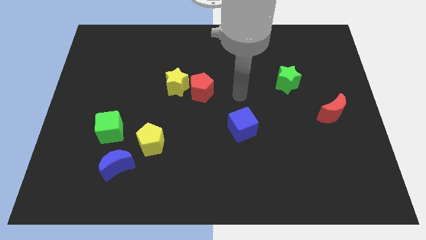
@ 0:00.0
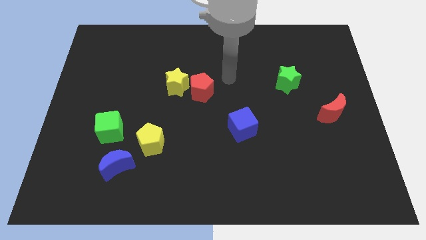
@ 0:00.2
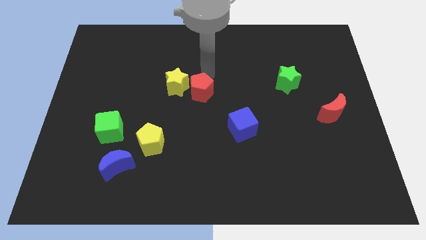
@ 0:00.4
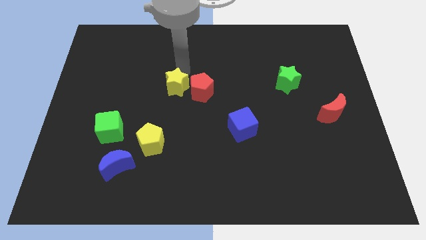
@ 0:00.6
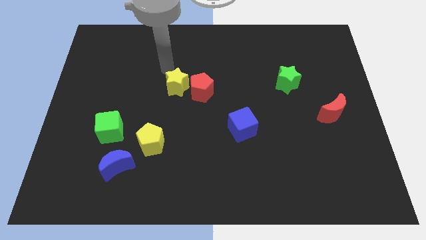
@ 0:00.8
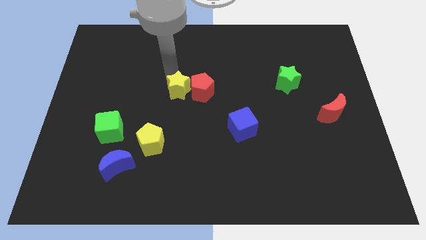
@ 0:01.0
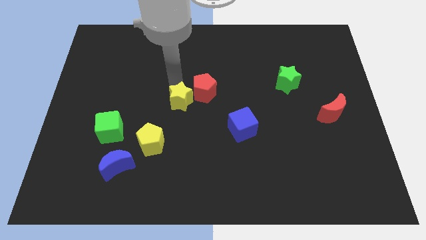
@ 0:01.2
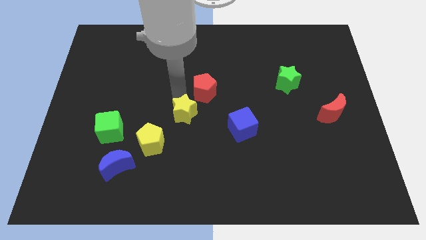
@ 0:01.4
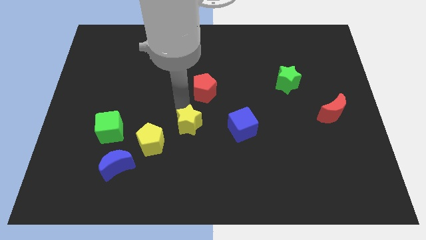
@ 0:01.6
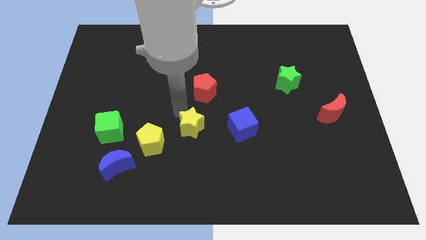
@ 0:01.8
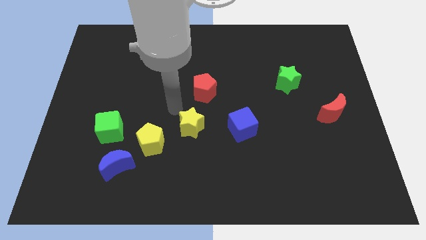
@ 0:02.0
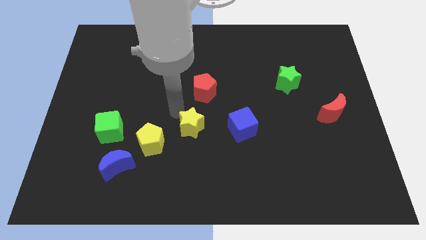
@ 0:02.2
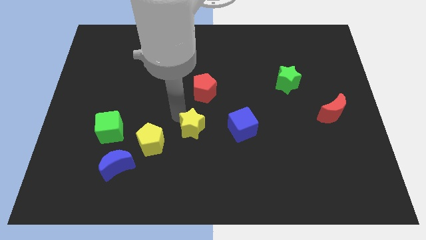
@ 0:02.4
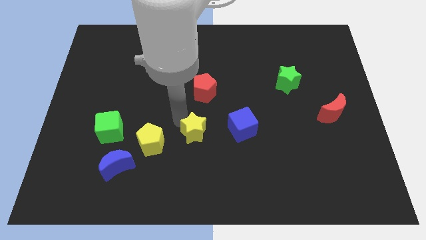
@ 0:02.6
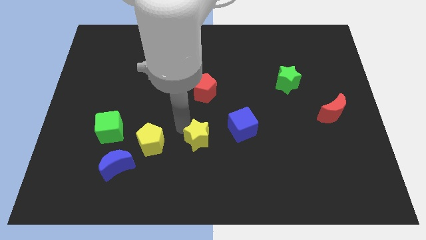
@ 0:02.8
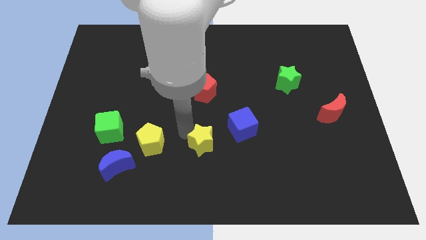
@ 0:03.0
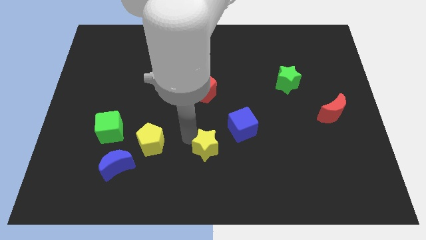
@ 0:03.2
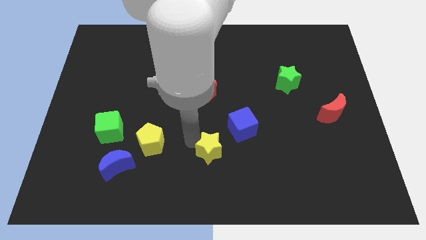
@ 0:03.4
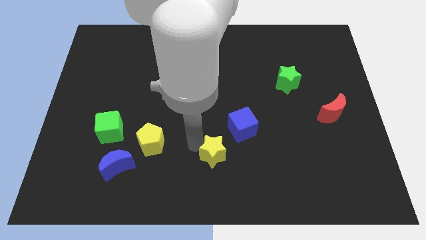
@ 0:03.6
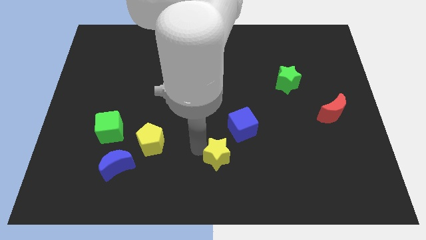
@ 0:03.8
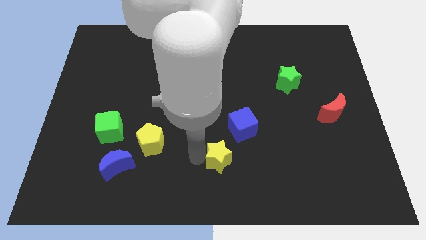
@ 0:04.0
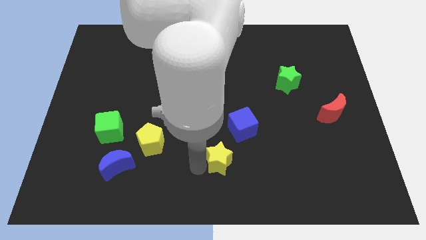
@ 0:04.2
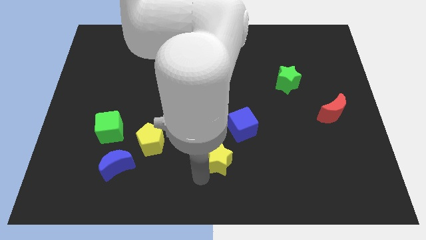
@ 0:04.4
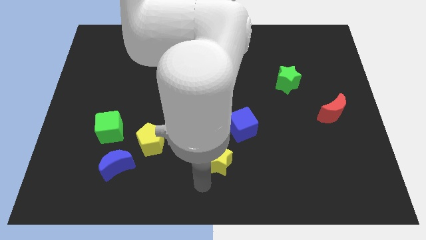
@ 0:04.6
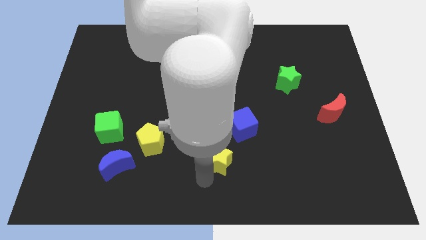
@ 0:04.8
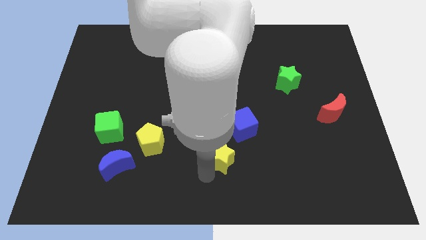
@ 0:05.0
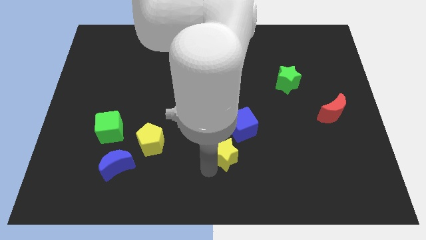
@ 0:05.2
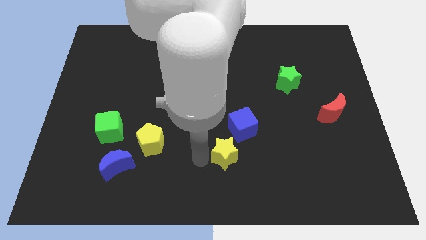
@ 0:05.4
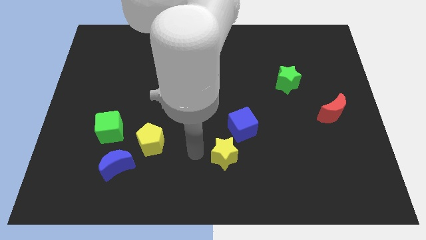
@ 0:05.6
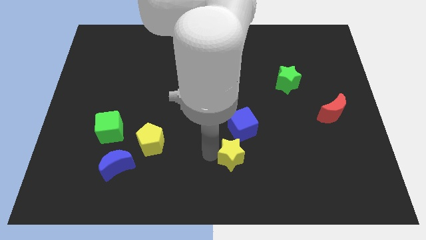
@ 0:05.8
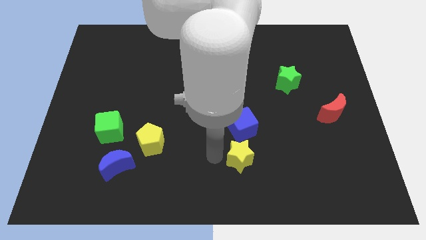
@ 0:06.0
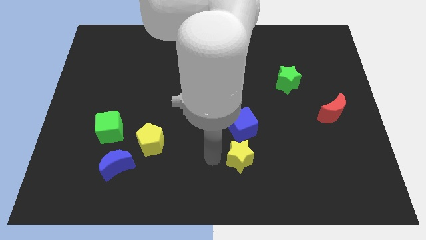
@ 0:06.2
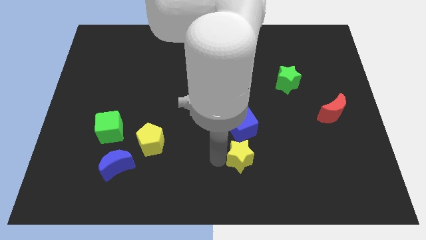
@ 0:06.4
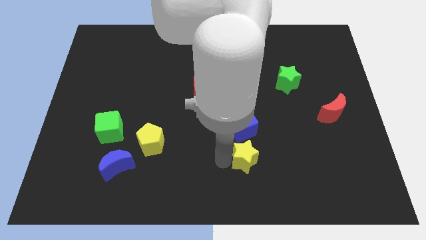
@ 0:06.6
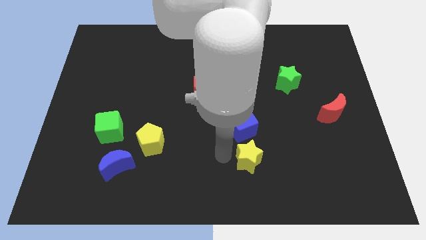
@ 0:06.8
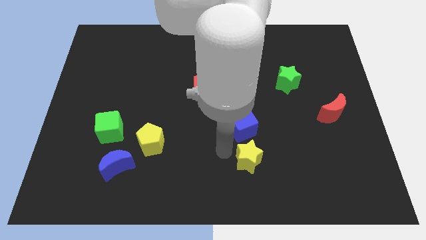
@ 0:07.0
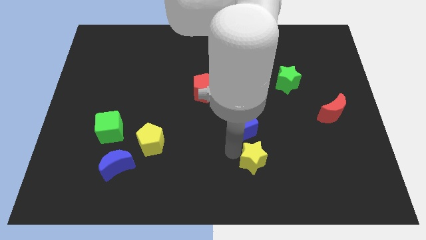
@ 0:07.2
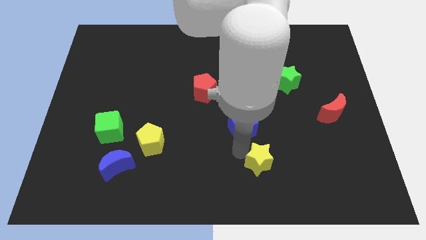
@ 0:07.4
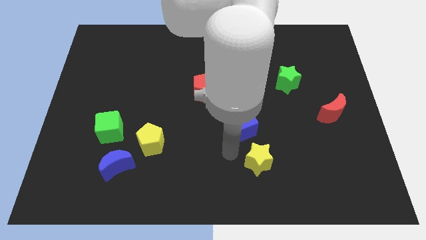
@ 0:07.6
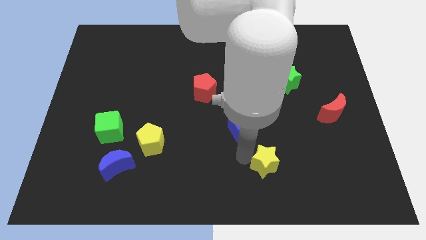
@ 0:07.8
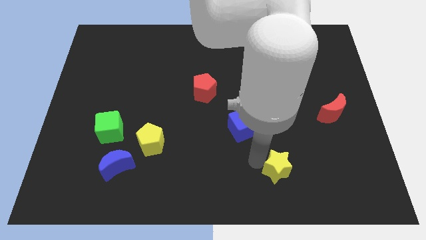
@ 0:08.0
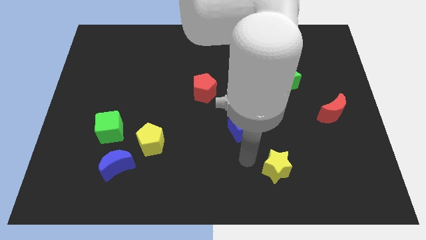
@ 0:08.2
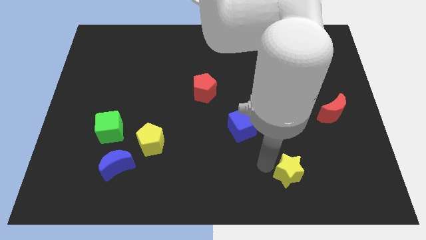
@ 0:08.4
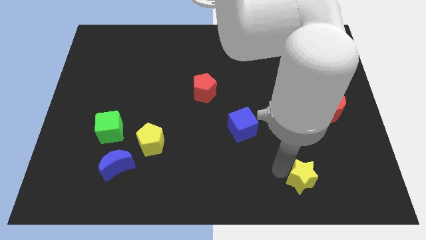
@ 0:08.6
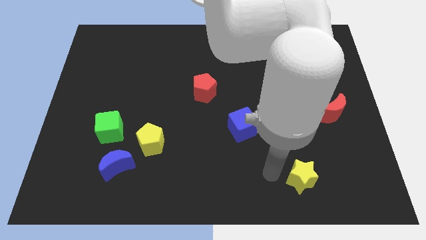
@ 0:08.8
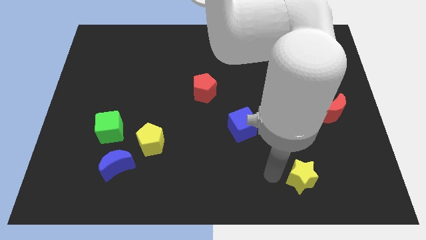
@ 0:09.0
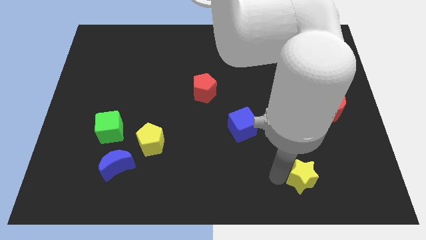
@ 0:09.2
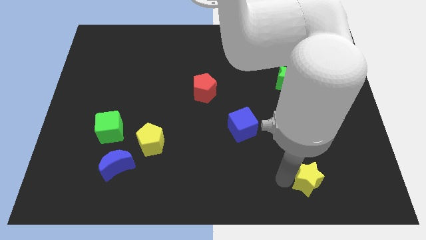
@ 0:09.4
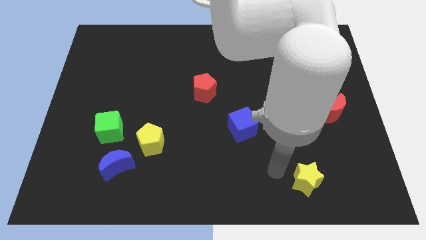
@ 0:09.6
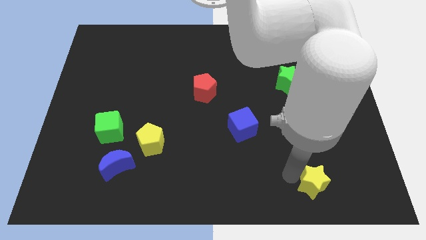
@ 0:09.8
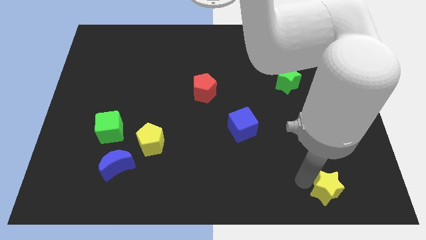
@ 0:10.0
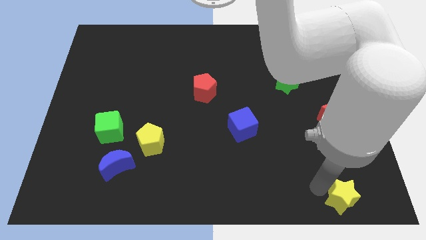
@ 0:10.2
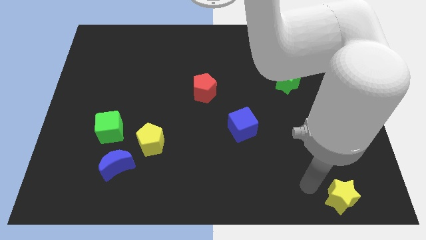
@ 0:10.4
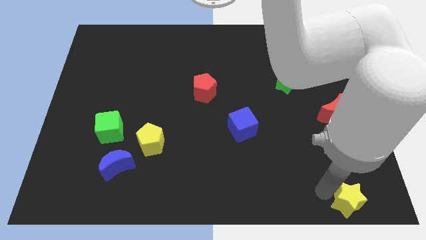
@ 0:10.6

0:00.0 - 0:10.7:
put the yellow star to the lower right corner

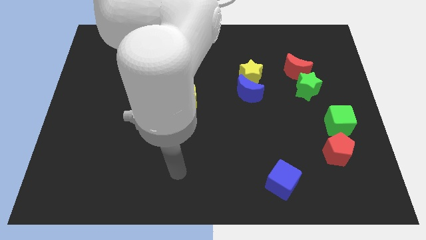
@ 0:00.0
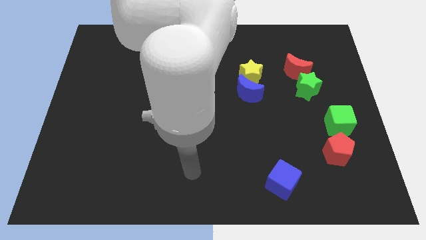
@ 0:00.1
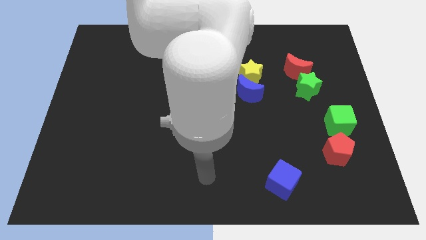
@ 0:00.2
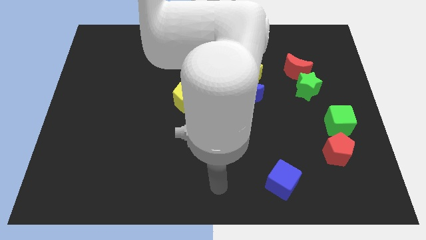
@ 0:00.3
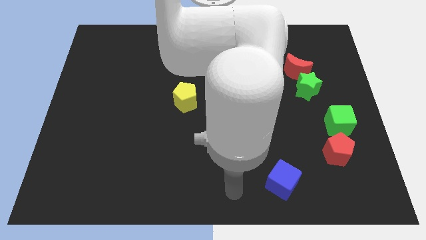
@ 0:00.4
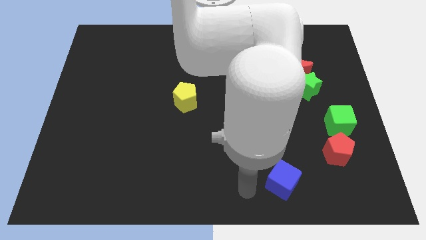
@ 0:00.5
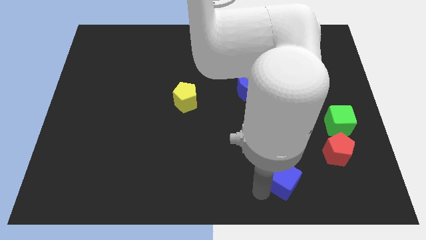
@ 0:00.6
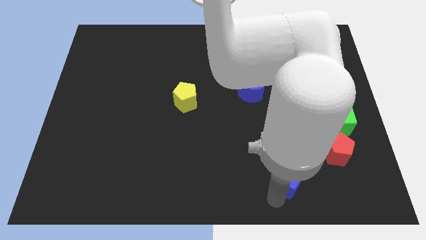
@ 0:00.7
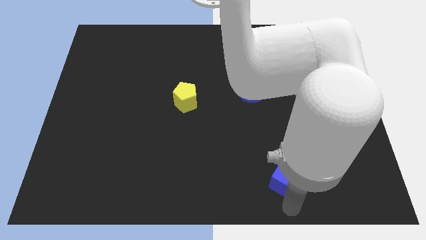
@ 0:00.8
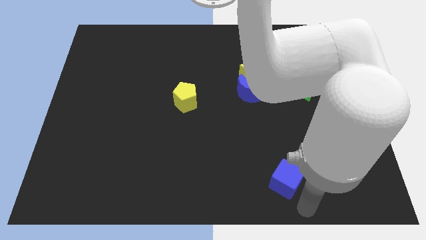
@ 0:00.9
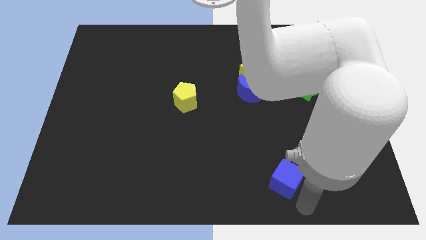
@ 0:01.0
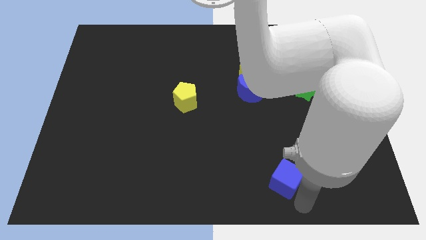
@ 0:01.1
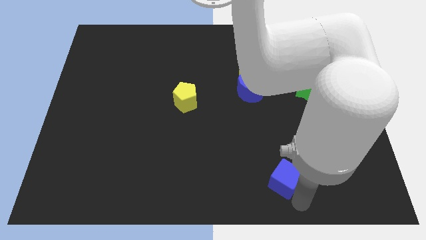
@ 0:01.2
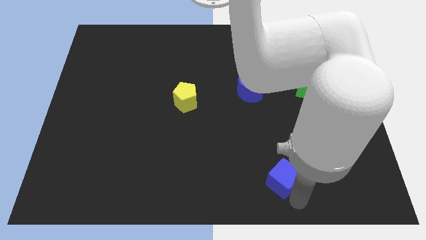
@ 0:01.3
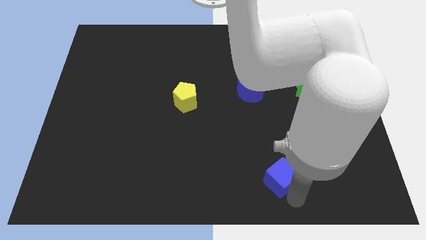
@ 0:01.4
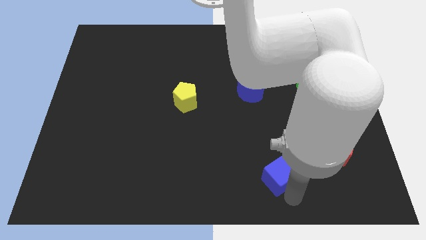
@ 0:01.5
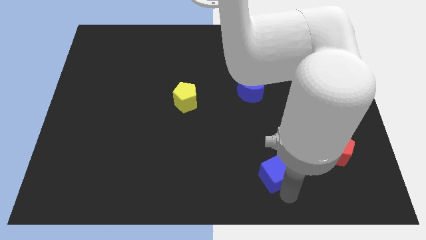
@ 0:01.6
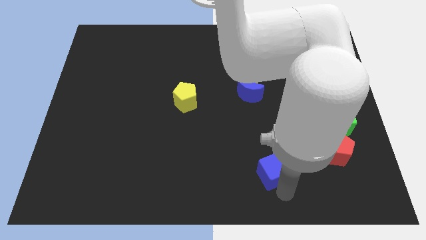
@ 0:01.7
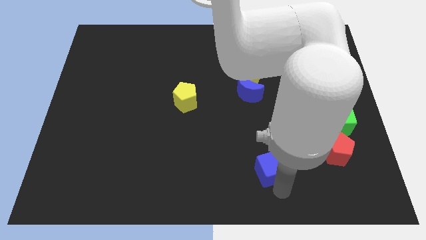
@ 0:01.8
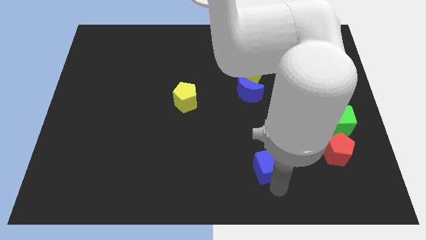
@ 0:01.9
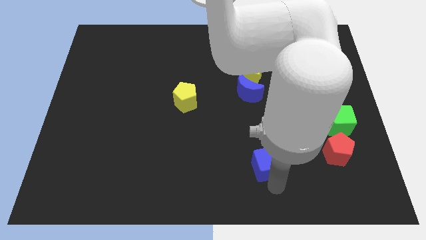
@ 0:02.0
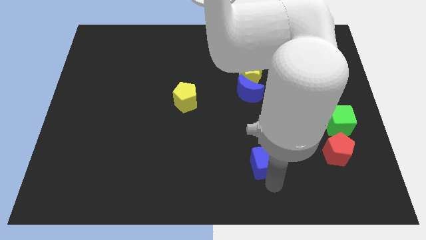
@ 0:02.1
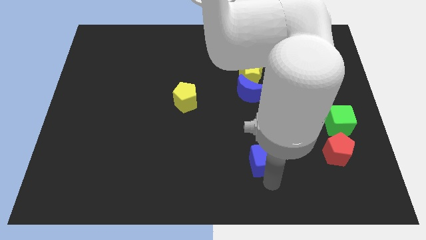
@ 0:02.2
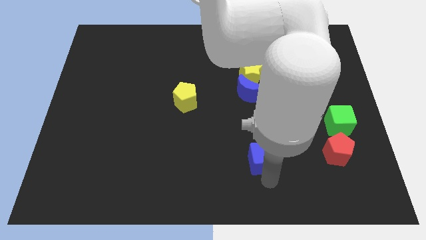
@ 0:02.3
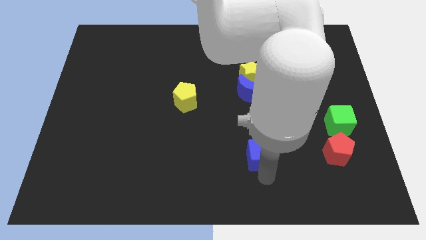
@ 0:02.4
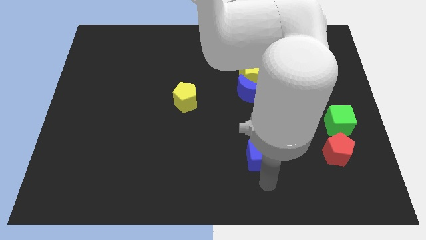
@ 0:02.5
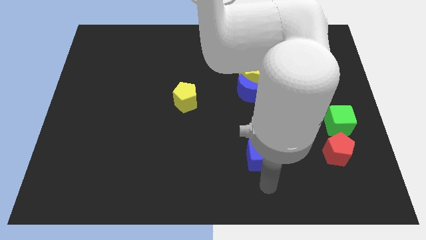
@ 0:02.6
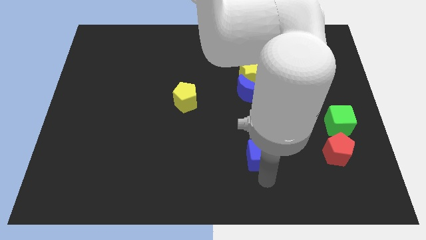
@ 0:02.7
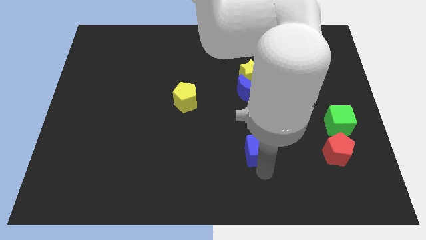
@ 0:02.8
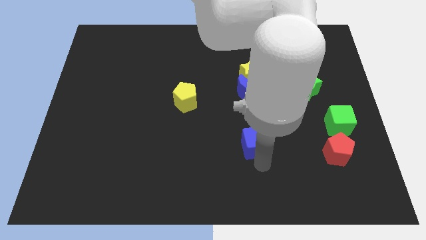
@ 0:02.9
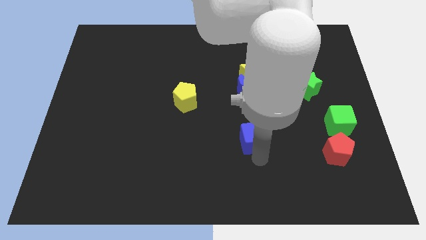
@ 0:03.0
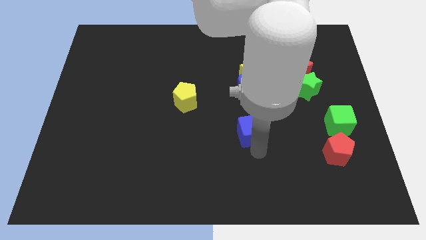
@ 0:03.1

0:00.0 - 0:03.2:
push the blue cube to the center
